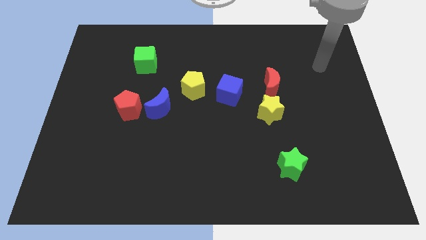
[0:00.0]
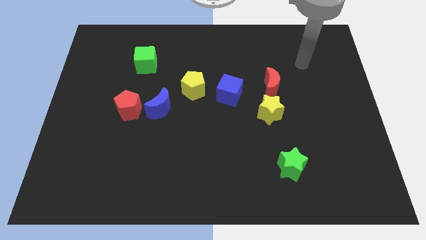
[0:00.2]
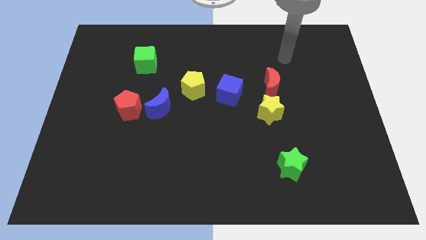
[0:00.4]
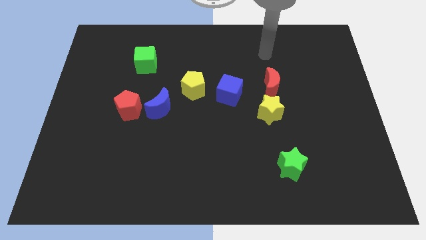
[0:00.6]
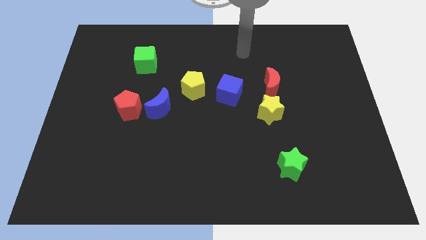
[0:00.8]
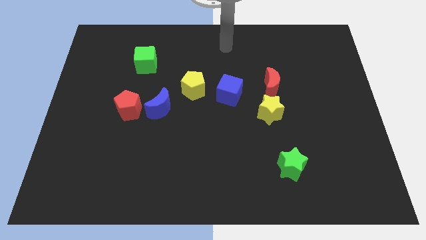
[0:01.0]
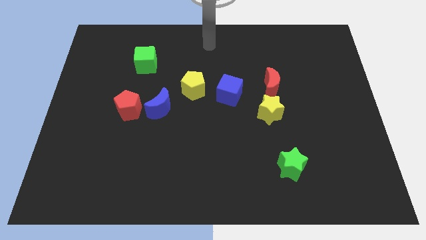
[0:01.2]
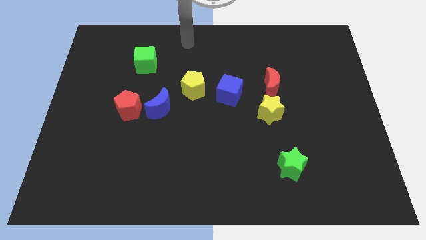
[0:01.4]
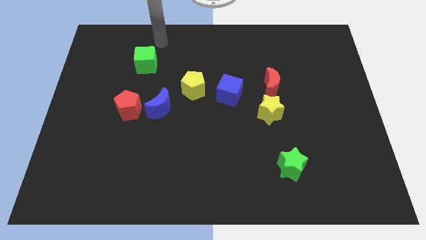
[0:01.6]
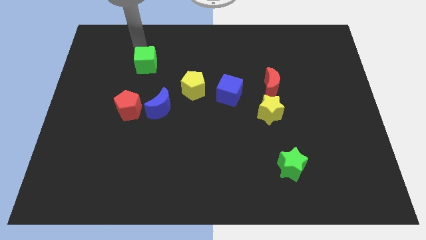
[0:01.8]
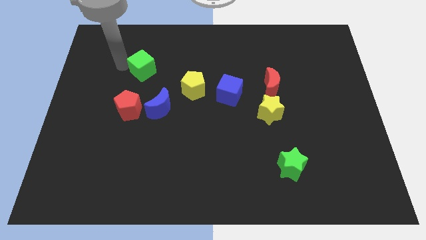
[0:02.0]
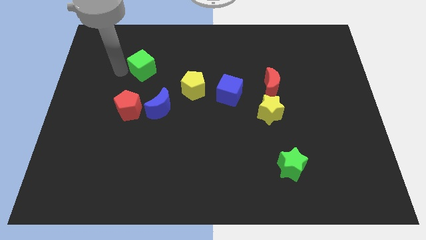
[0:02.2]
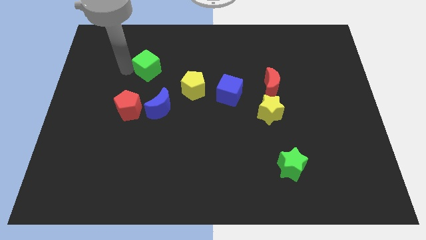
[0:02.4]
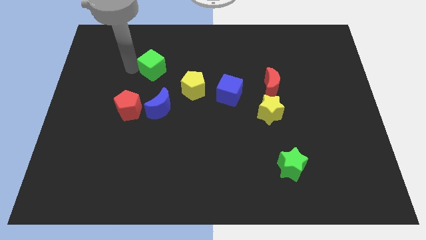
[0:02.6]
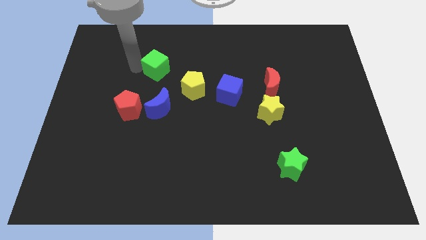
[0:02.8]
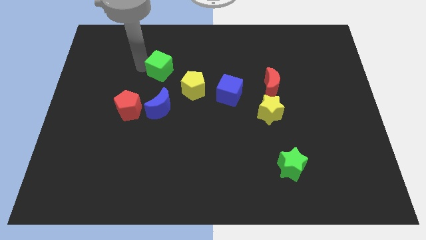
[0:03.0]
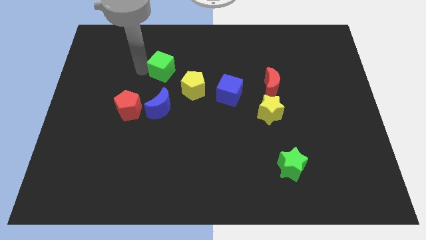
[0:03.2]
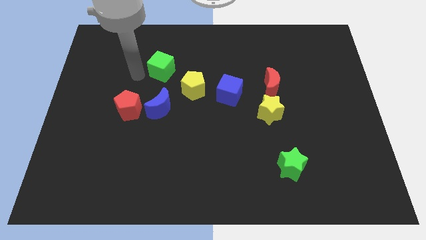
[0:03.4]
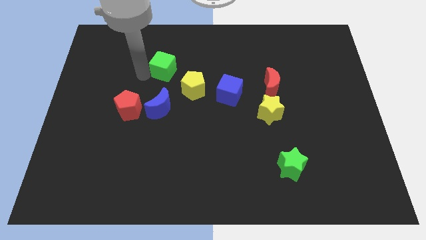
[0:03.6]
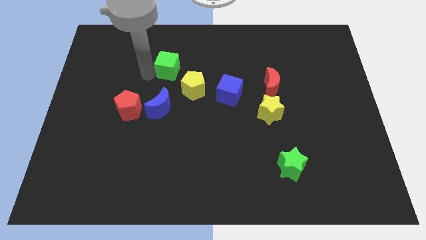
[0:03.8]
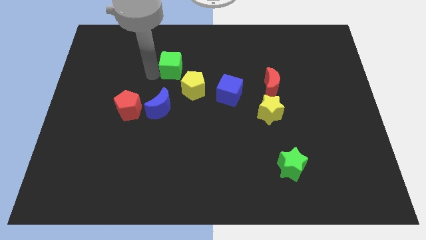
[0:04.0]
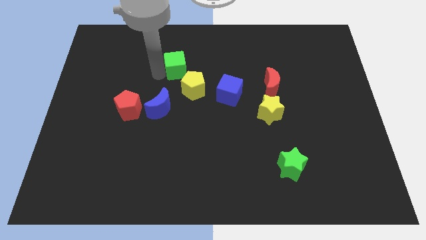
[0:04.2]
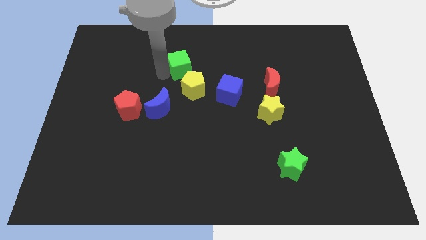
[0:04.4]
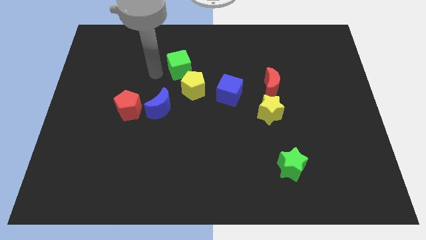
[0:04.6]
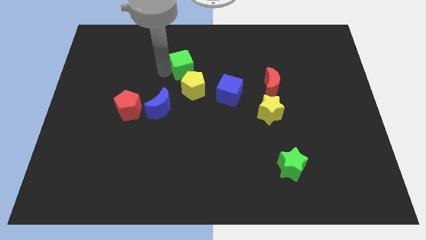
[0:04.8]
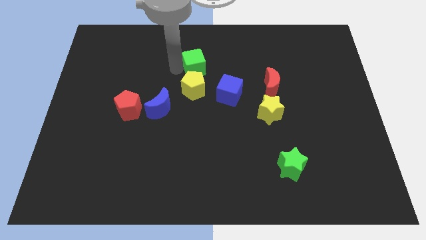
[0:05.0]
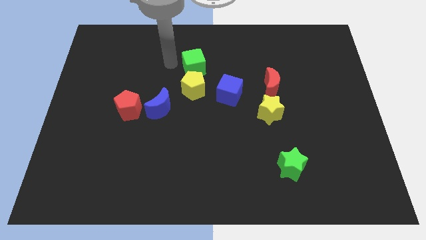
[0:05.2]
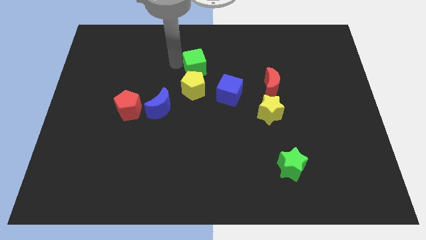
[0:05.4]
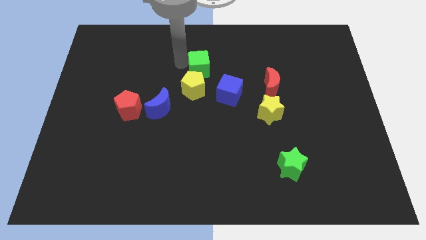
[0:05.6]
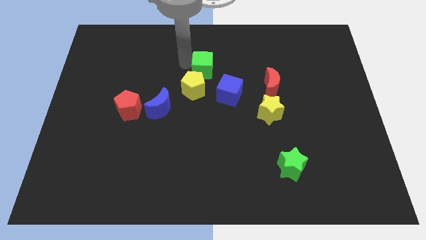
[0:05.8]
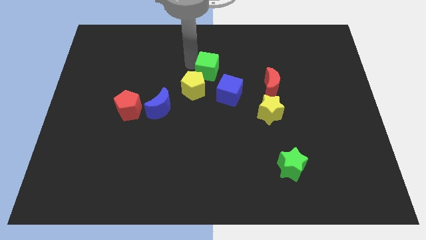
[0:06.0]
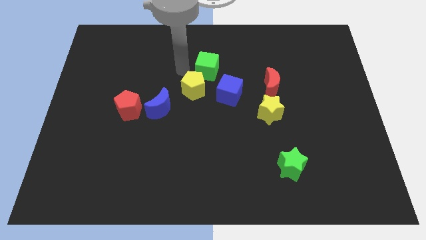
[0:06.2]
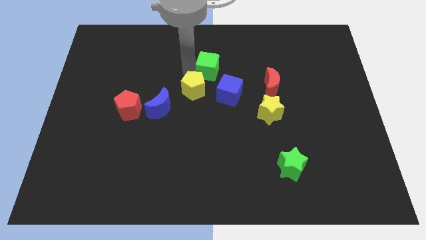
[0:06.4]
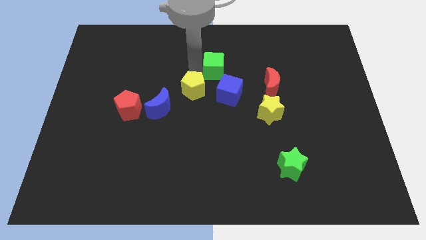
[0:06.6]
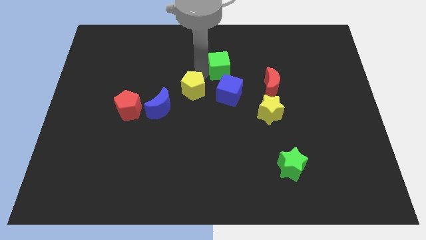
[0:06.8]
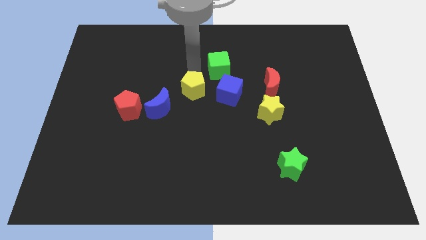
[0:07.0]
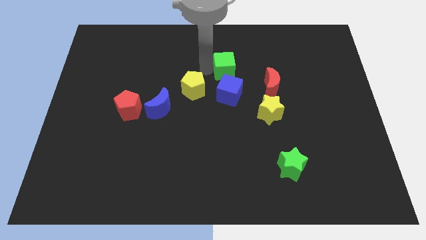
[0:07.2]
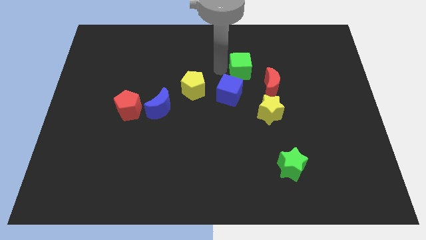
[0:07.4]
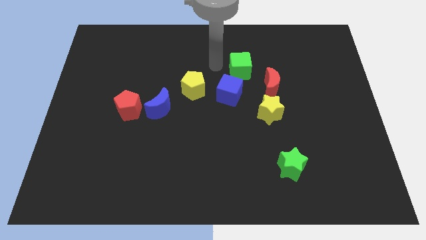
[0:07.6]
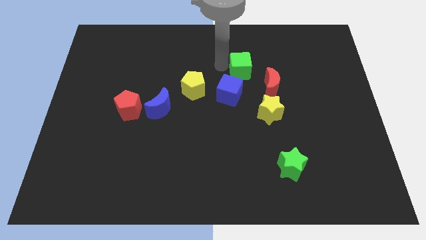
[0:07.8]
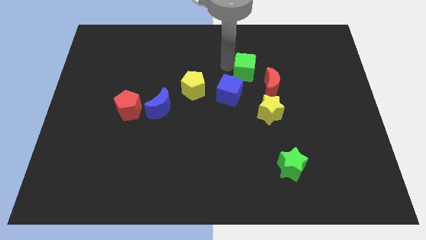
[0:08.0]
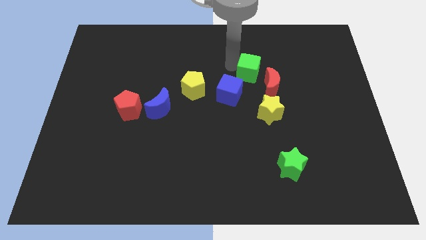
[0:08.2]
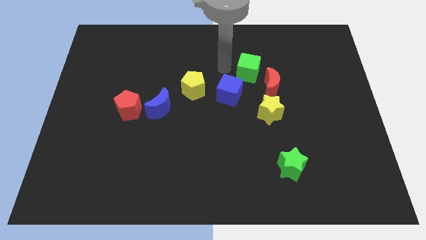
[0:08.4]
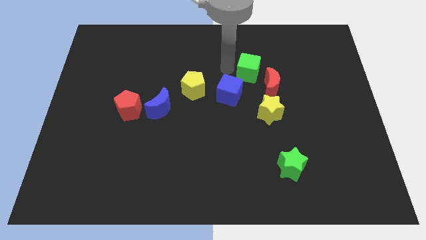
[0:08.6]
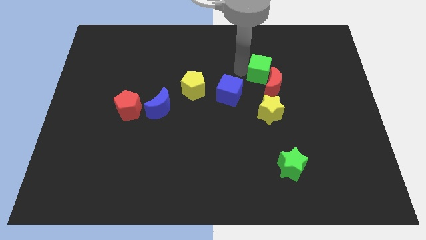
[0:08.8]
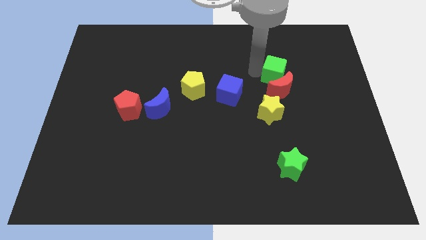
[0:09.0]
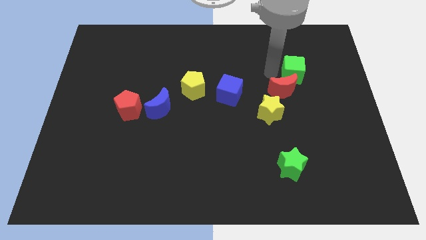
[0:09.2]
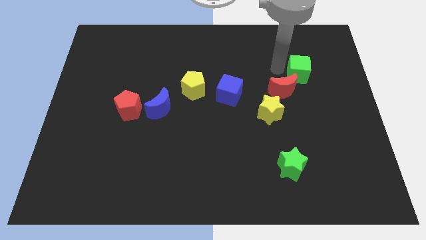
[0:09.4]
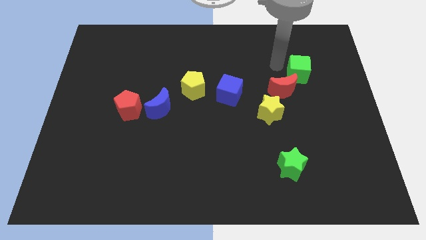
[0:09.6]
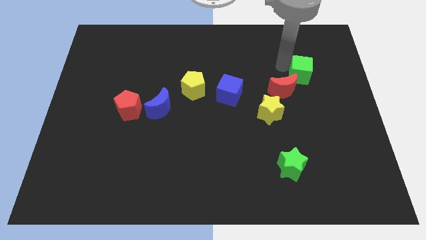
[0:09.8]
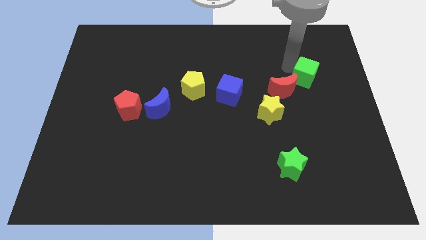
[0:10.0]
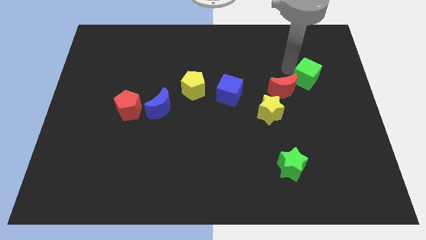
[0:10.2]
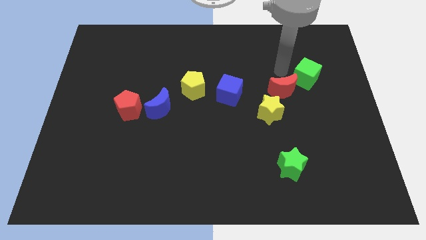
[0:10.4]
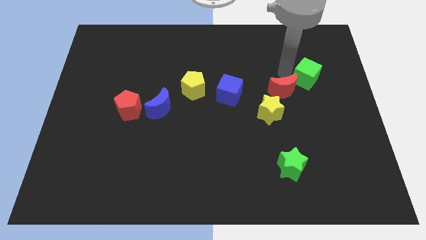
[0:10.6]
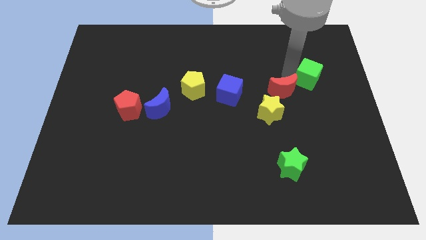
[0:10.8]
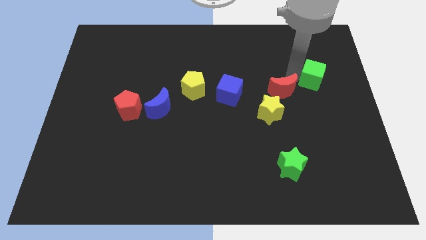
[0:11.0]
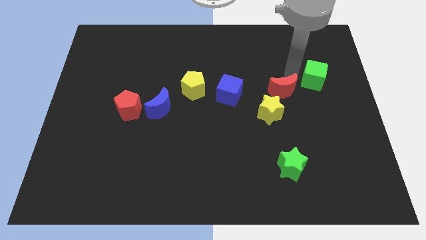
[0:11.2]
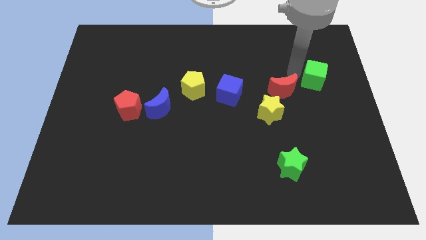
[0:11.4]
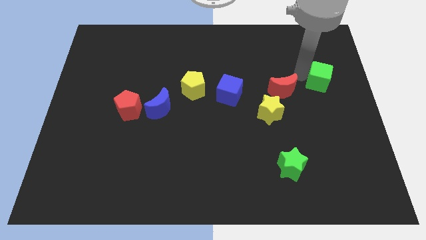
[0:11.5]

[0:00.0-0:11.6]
move the green cube to the right side
